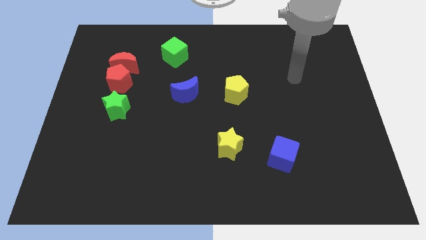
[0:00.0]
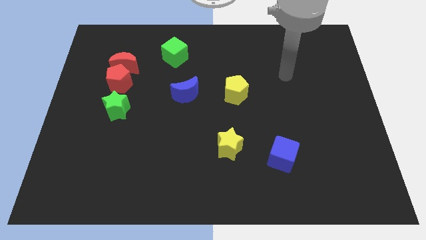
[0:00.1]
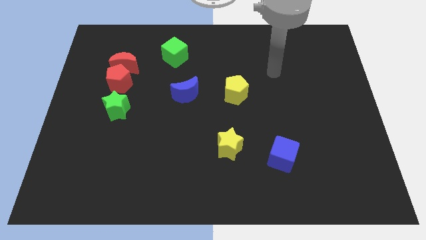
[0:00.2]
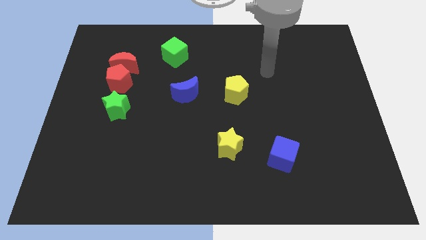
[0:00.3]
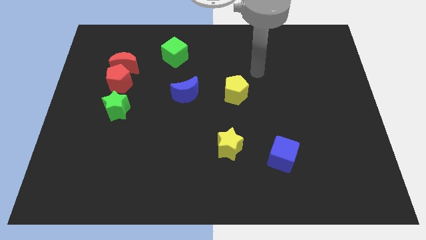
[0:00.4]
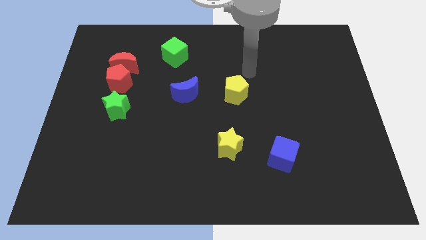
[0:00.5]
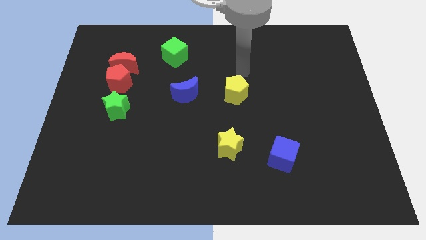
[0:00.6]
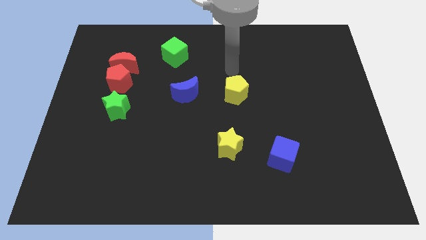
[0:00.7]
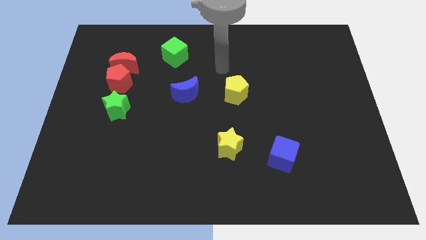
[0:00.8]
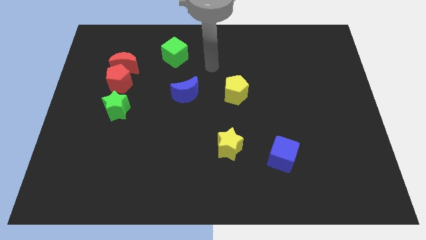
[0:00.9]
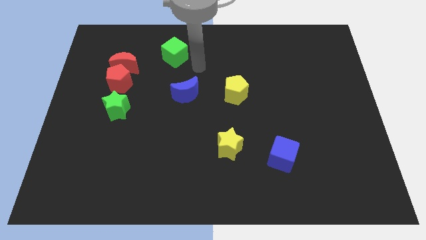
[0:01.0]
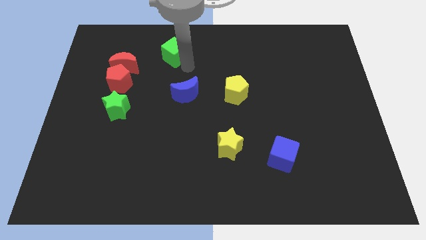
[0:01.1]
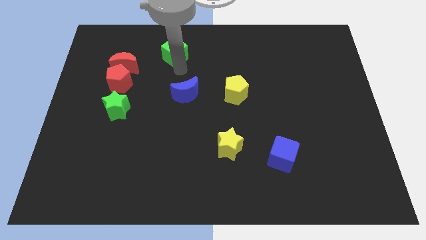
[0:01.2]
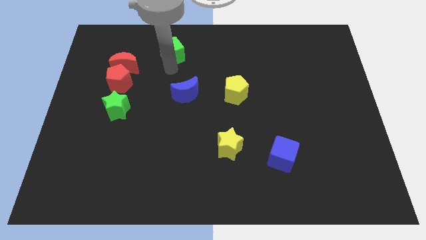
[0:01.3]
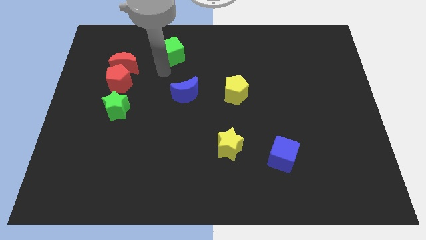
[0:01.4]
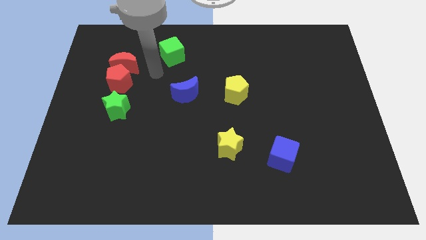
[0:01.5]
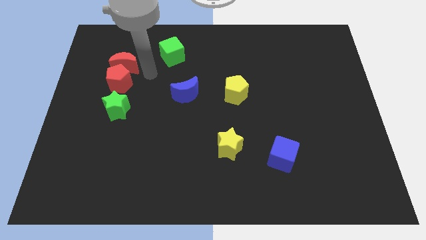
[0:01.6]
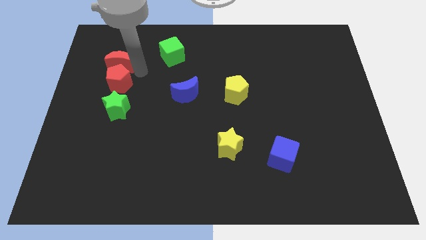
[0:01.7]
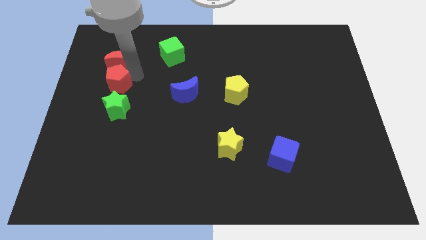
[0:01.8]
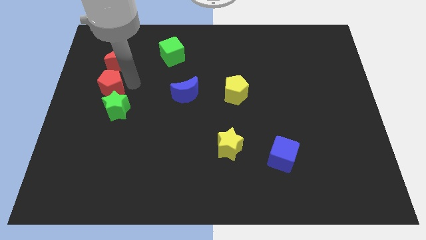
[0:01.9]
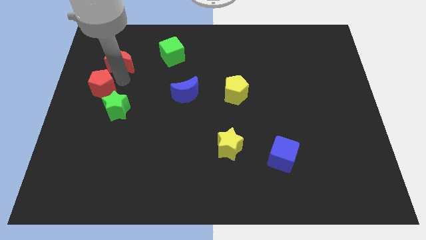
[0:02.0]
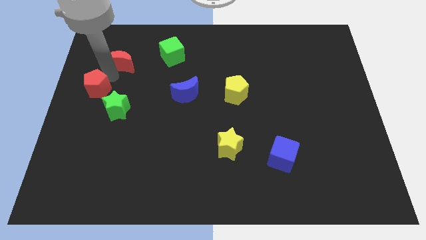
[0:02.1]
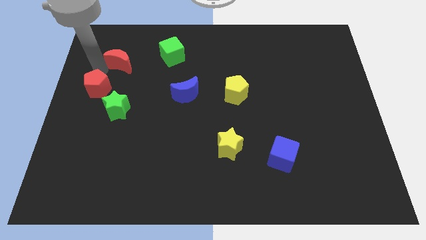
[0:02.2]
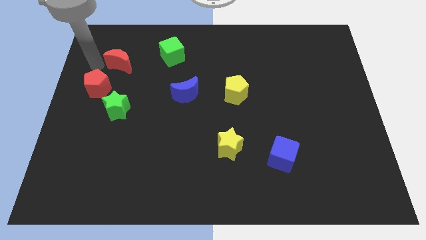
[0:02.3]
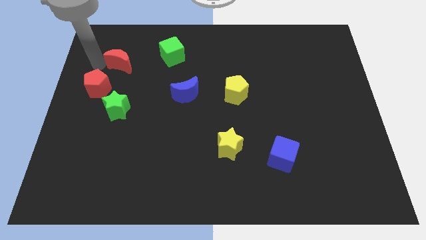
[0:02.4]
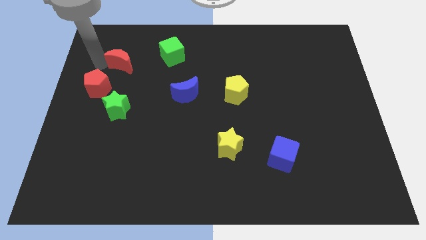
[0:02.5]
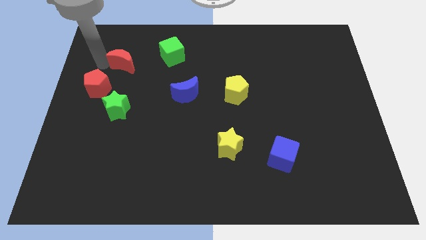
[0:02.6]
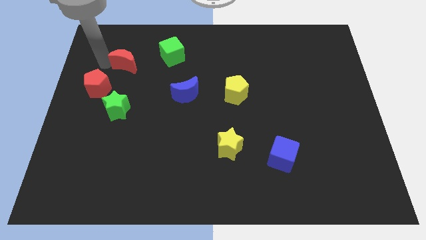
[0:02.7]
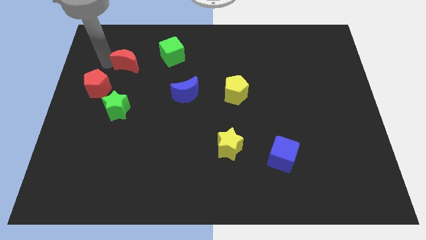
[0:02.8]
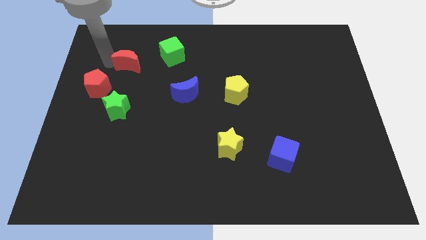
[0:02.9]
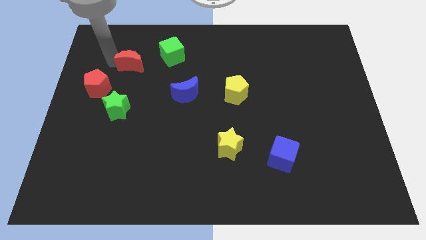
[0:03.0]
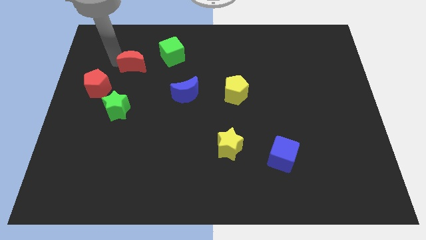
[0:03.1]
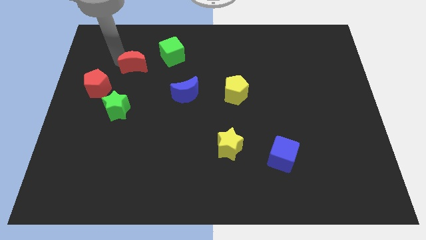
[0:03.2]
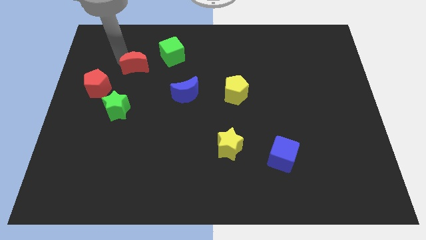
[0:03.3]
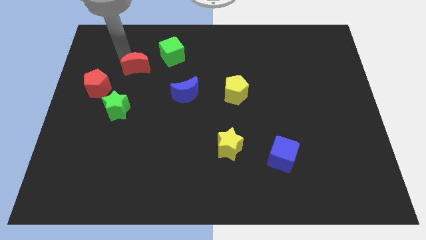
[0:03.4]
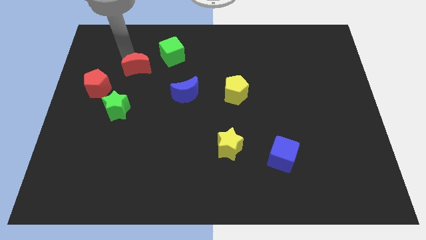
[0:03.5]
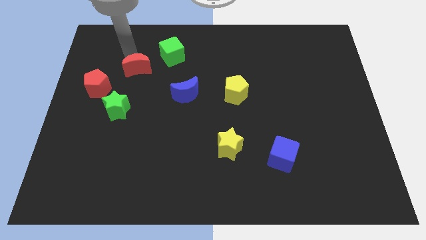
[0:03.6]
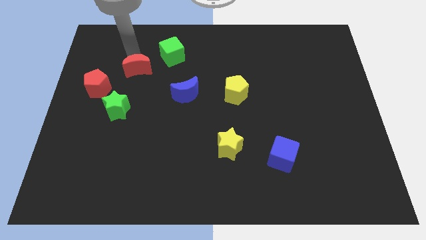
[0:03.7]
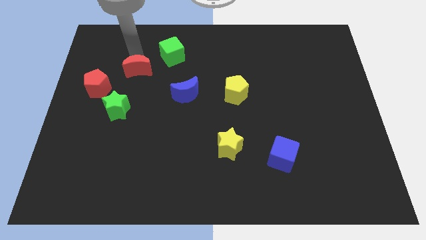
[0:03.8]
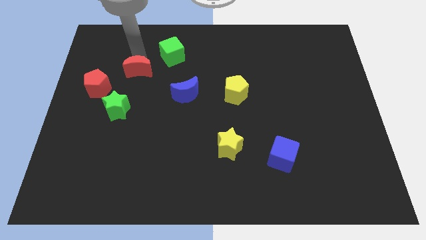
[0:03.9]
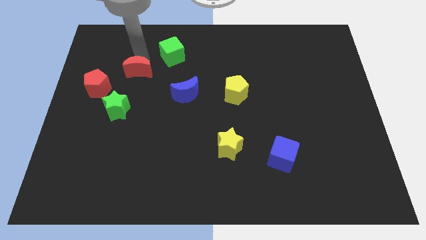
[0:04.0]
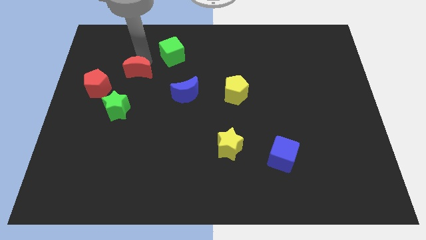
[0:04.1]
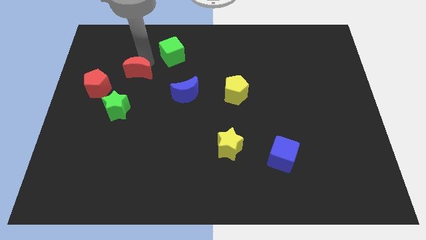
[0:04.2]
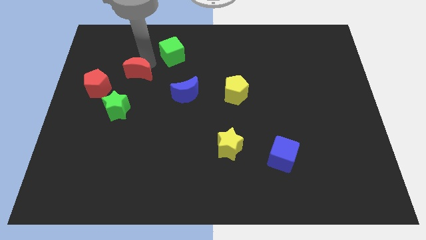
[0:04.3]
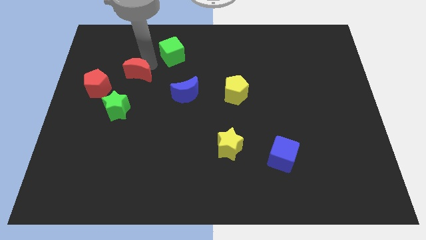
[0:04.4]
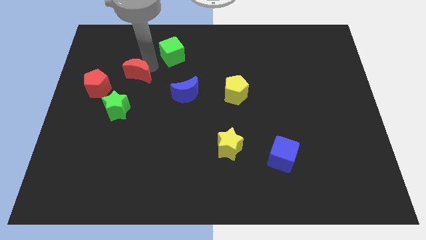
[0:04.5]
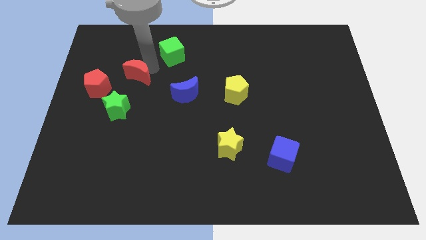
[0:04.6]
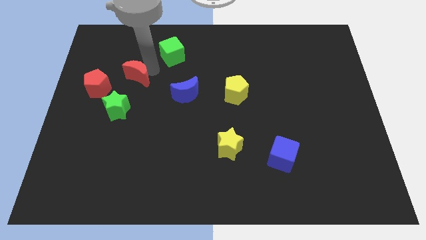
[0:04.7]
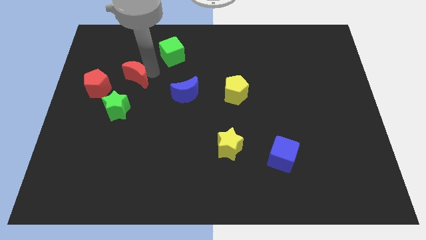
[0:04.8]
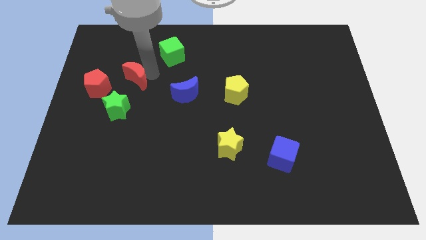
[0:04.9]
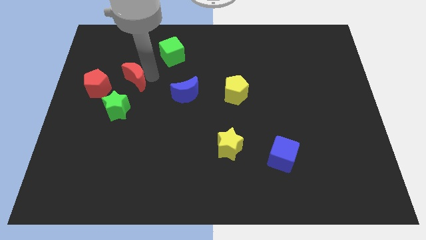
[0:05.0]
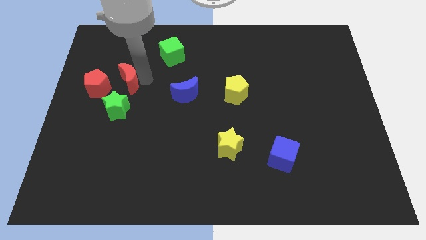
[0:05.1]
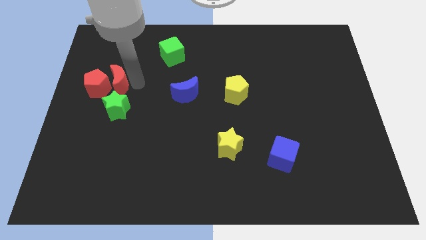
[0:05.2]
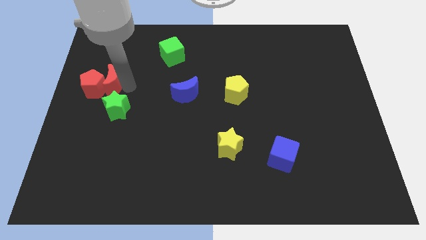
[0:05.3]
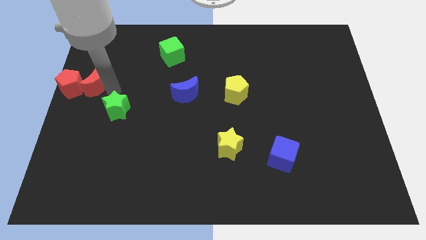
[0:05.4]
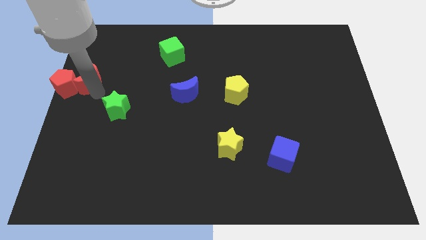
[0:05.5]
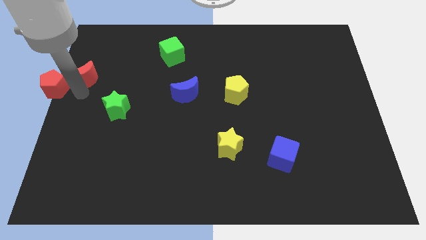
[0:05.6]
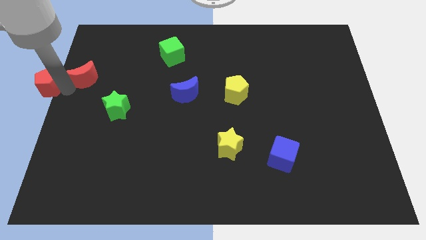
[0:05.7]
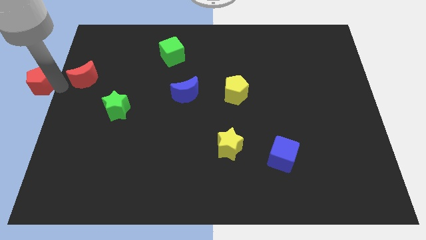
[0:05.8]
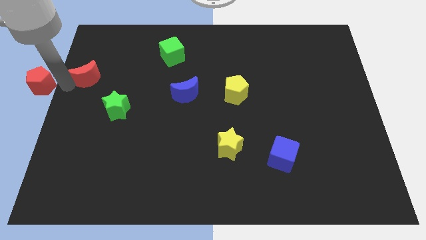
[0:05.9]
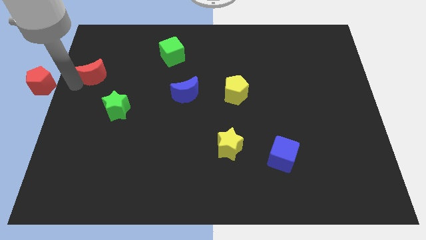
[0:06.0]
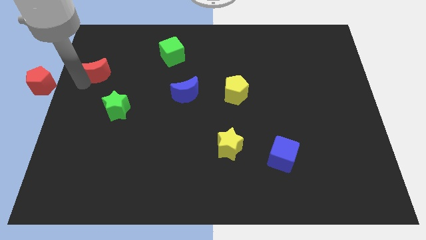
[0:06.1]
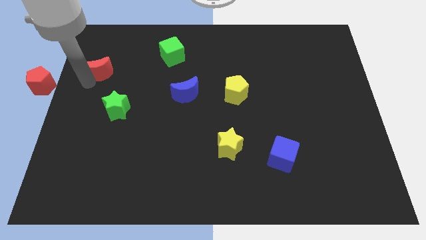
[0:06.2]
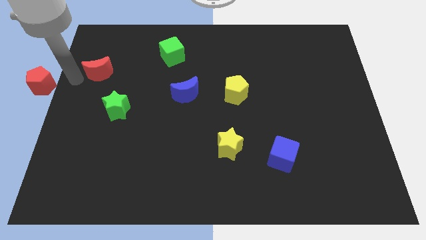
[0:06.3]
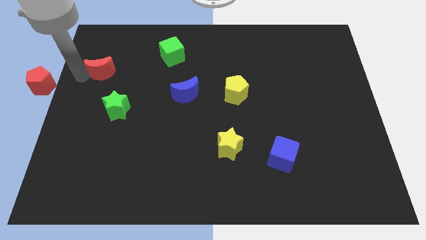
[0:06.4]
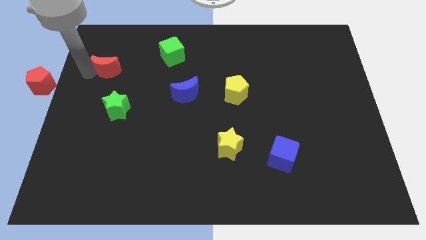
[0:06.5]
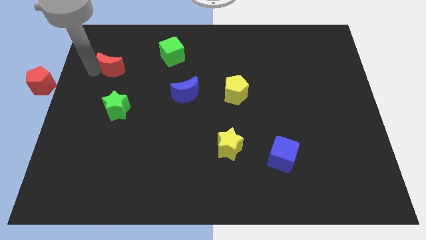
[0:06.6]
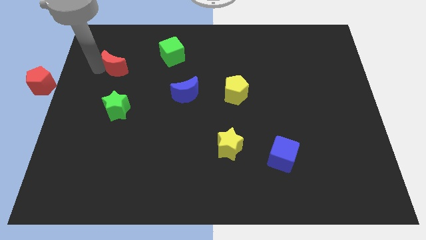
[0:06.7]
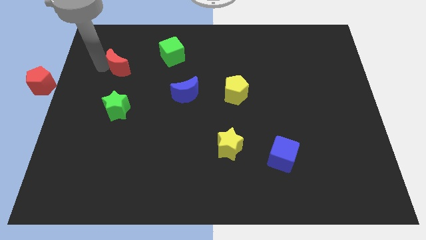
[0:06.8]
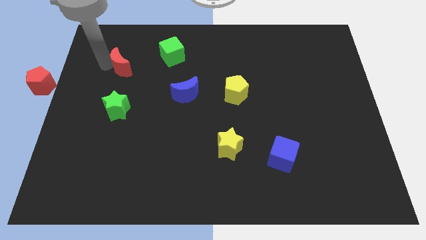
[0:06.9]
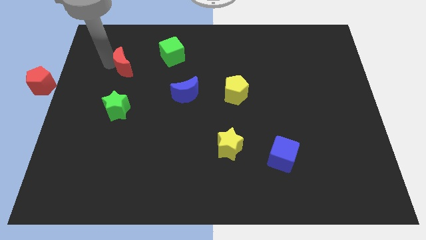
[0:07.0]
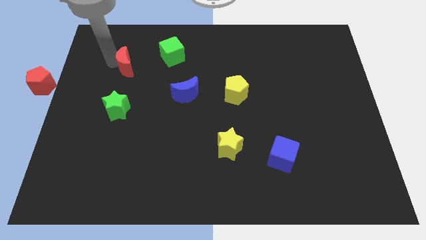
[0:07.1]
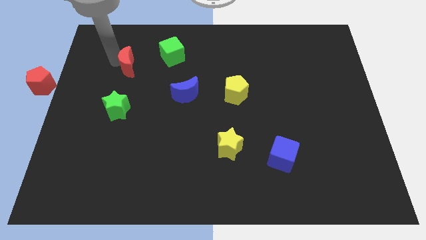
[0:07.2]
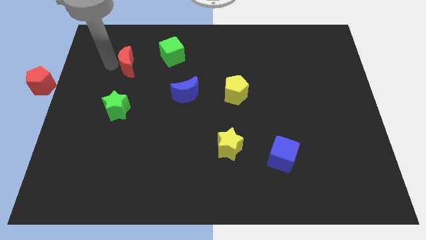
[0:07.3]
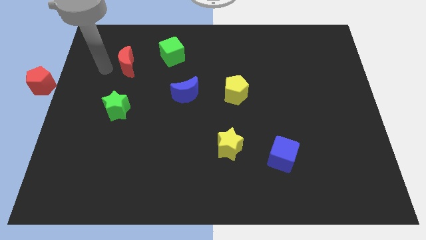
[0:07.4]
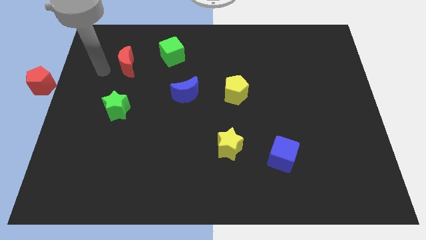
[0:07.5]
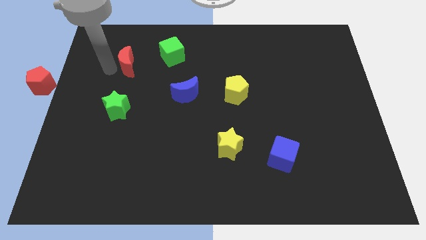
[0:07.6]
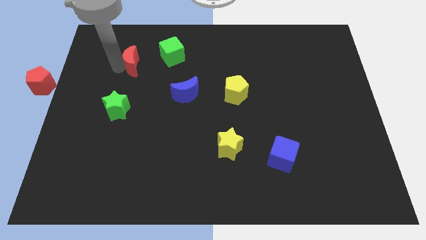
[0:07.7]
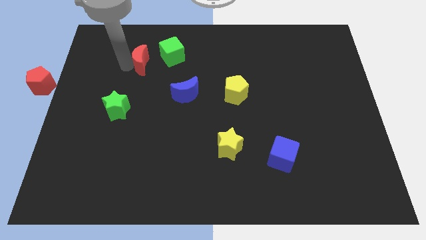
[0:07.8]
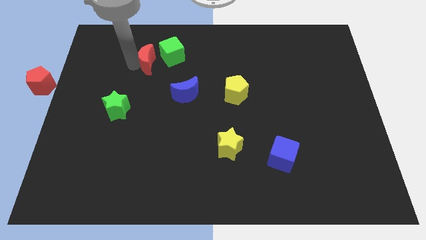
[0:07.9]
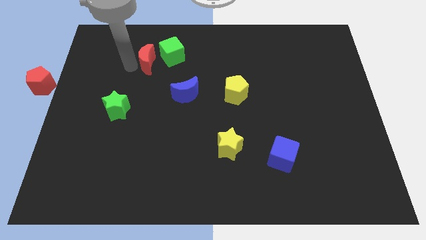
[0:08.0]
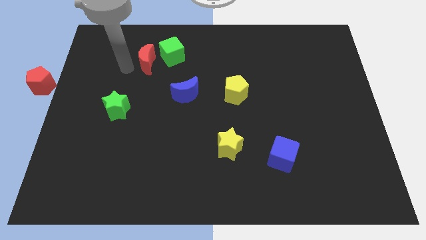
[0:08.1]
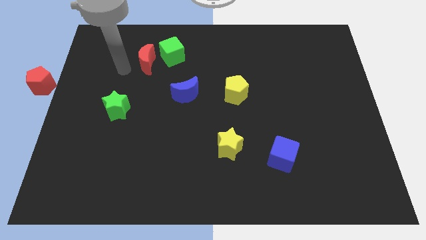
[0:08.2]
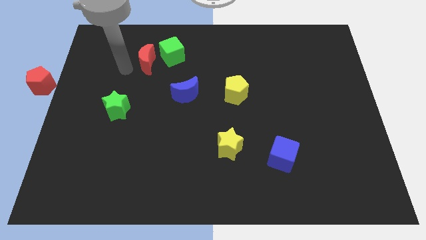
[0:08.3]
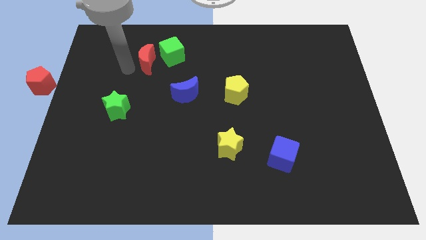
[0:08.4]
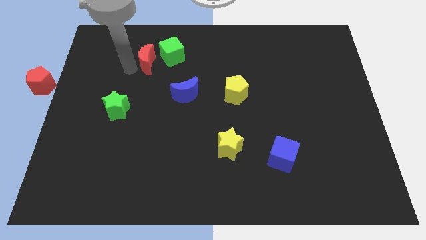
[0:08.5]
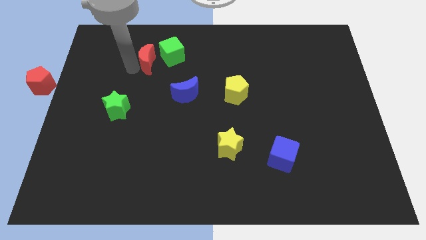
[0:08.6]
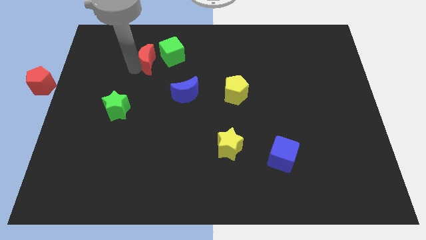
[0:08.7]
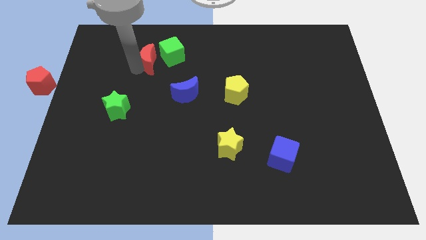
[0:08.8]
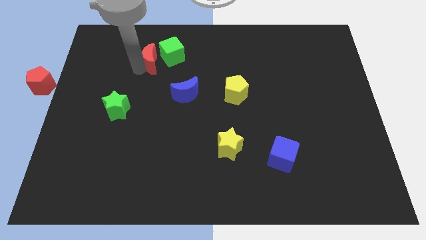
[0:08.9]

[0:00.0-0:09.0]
move the red moon towards the green cube
